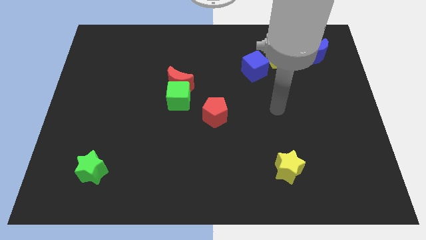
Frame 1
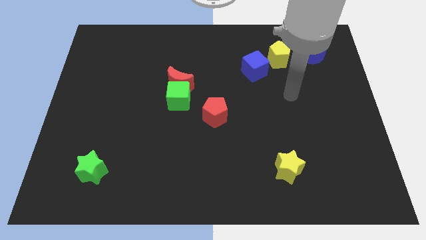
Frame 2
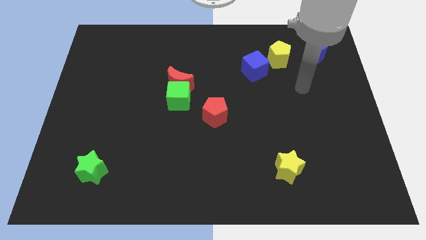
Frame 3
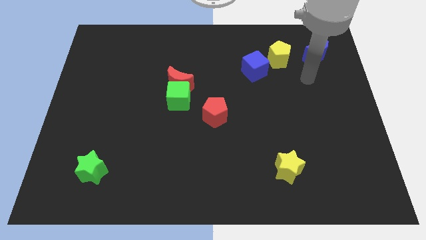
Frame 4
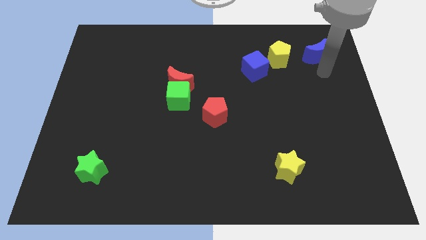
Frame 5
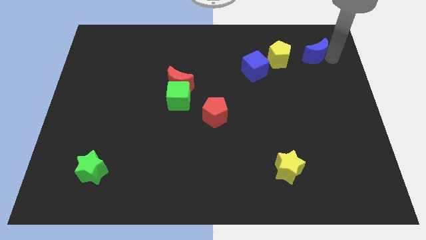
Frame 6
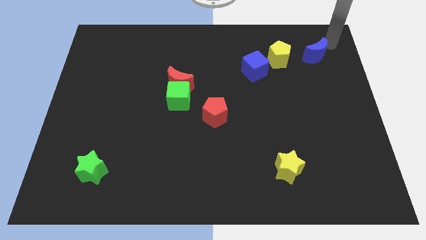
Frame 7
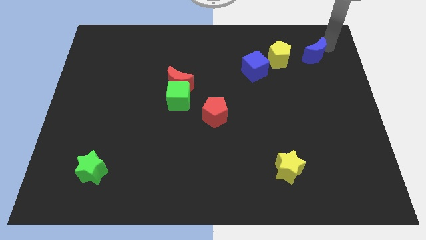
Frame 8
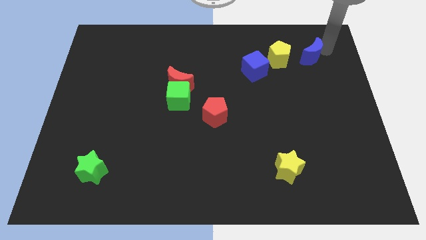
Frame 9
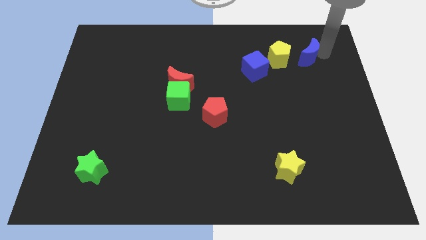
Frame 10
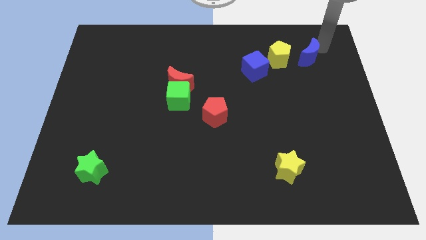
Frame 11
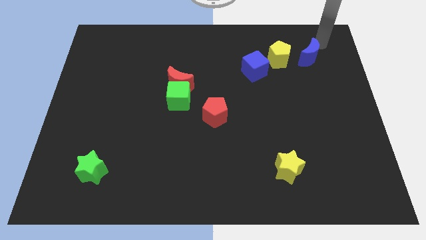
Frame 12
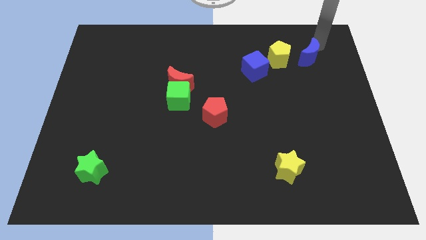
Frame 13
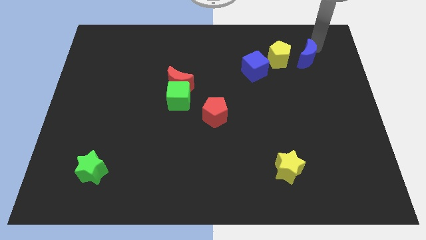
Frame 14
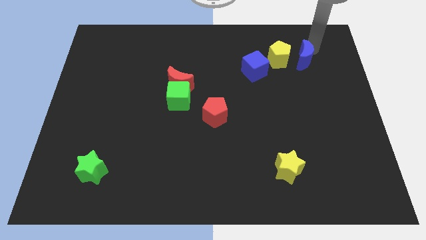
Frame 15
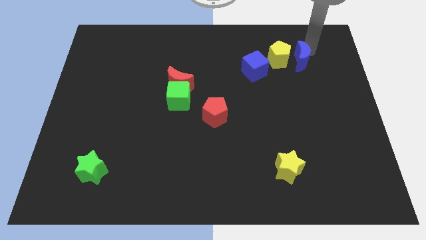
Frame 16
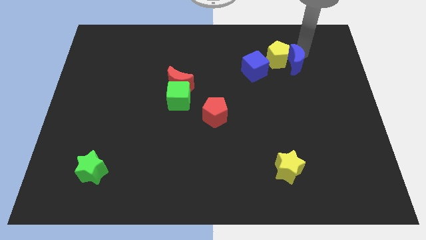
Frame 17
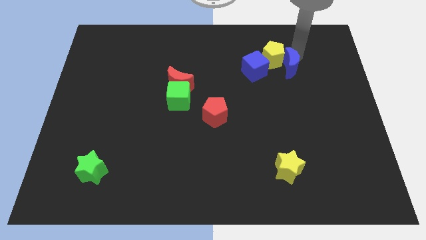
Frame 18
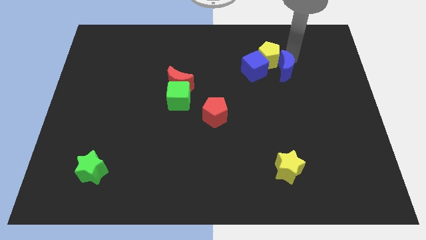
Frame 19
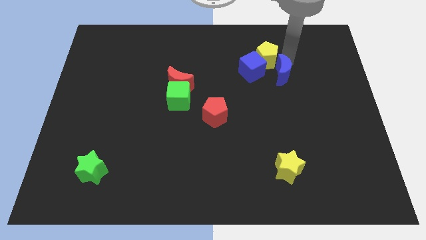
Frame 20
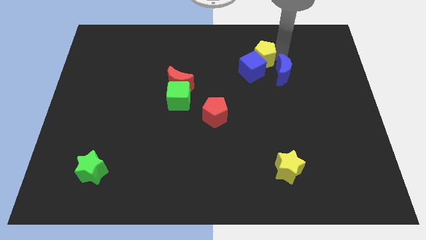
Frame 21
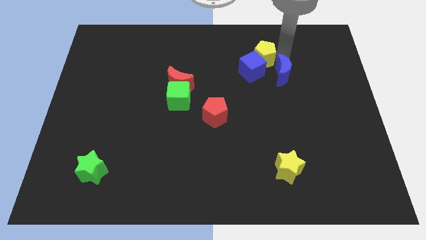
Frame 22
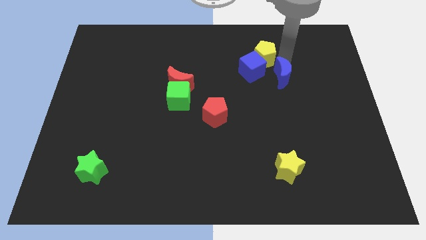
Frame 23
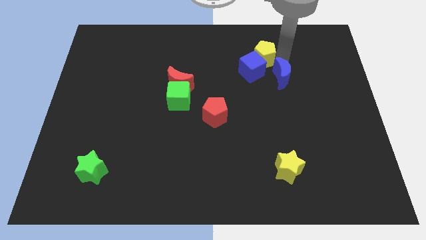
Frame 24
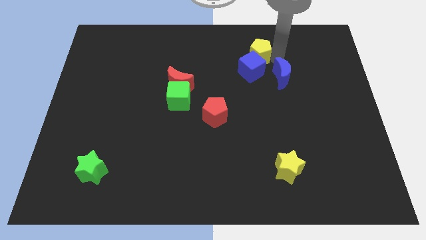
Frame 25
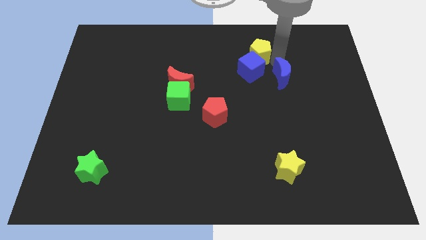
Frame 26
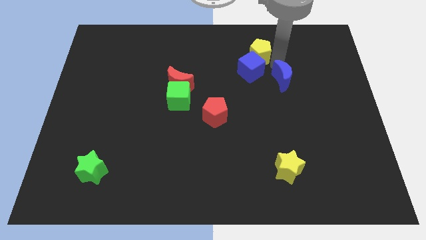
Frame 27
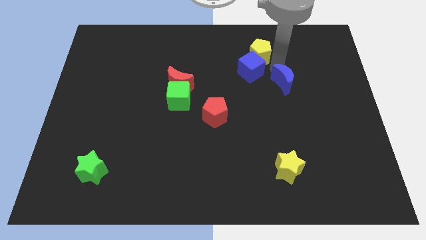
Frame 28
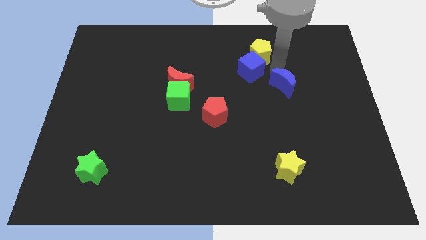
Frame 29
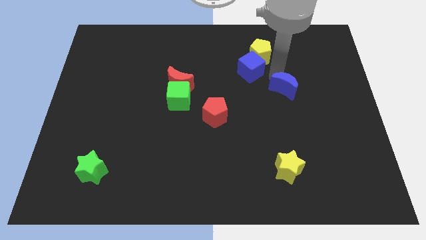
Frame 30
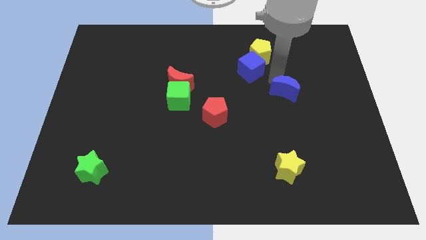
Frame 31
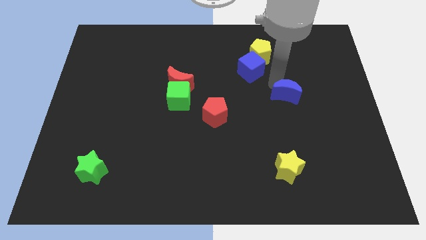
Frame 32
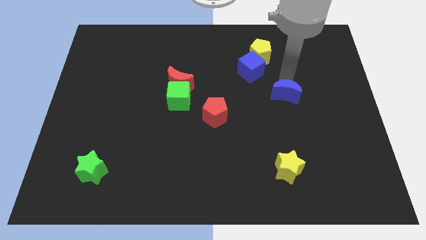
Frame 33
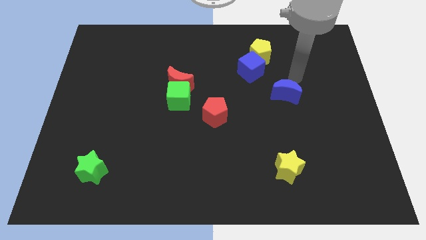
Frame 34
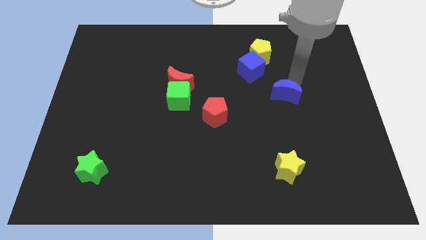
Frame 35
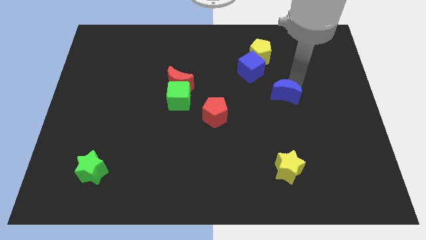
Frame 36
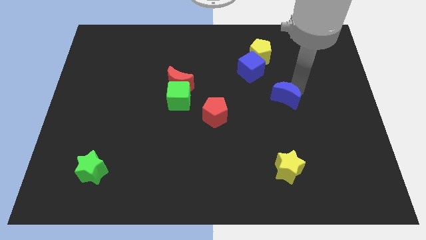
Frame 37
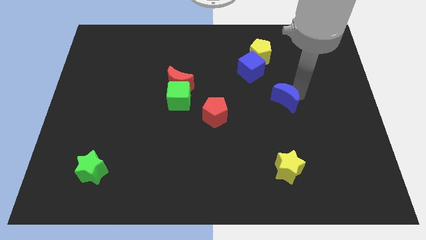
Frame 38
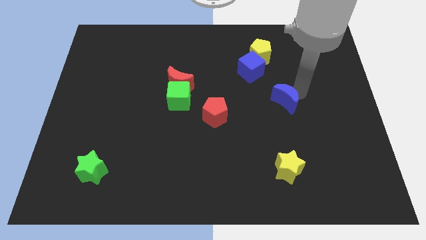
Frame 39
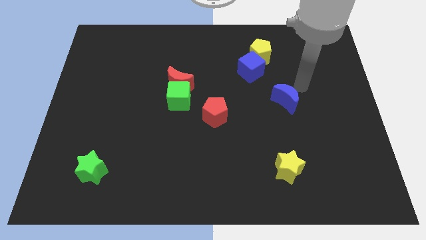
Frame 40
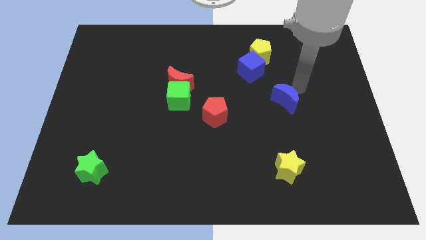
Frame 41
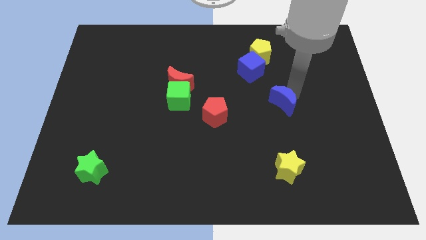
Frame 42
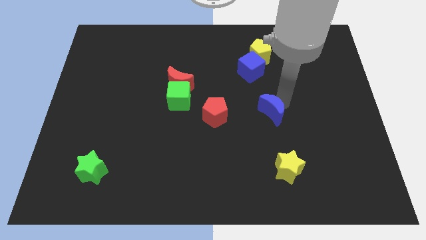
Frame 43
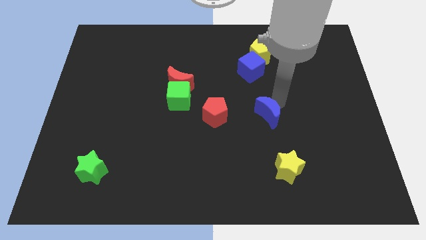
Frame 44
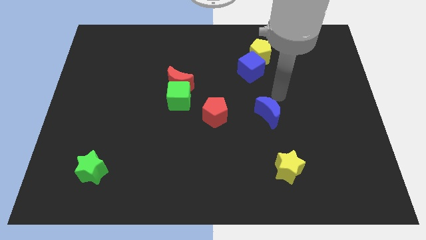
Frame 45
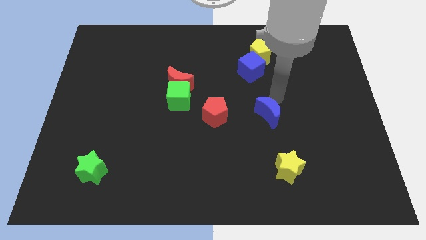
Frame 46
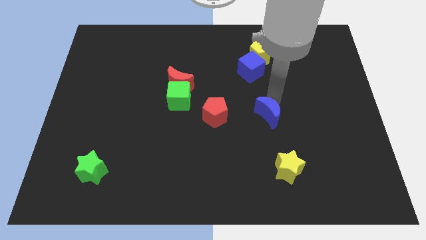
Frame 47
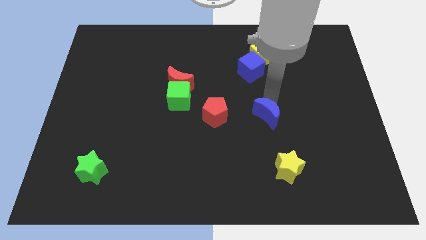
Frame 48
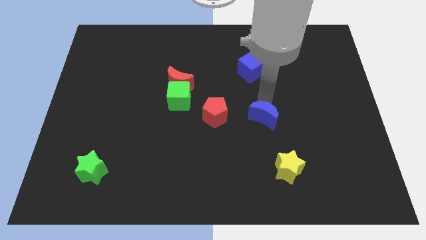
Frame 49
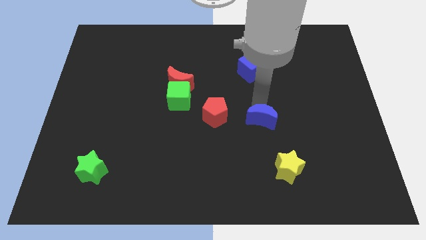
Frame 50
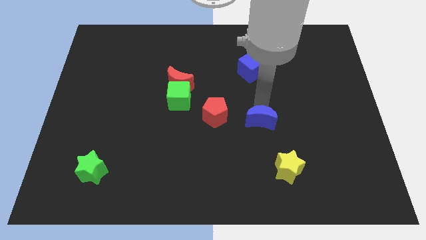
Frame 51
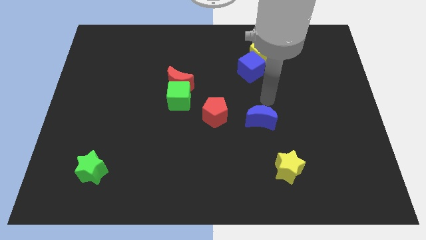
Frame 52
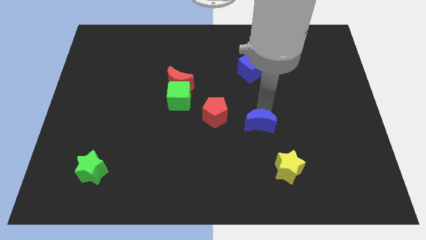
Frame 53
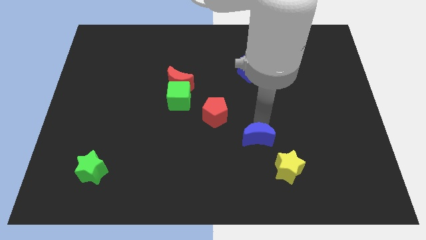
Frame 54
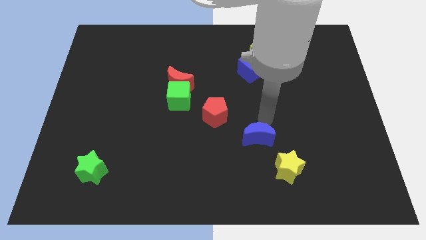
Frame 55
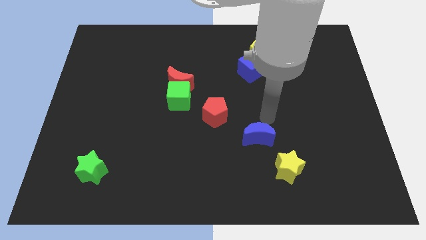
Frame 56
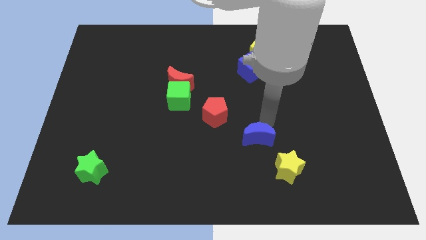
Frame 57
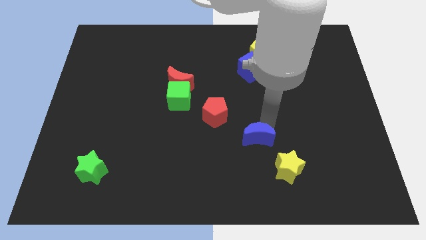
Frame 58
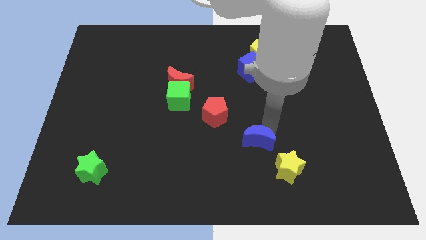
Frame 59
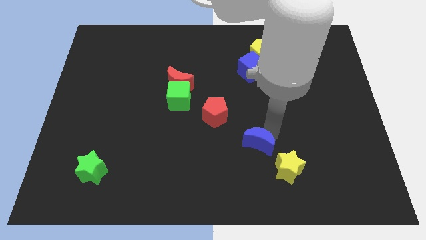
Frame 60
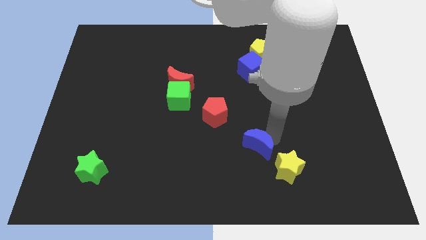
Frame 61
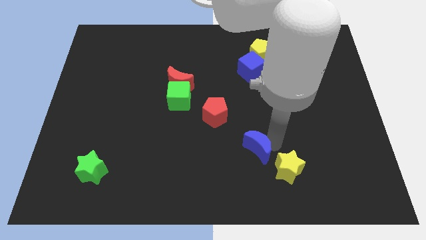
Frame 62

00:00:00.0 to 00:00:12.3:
move the blue moon to the left side of the yellow star
